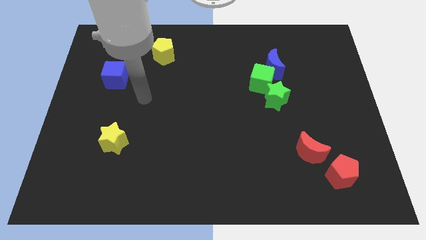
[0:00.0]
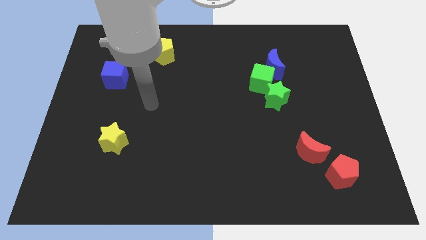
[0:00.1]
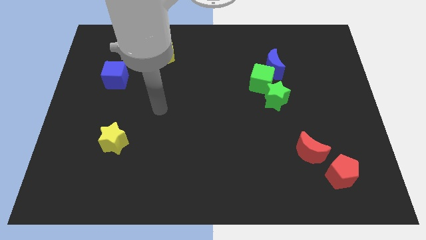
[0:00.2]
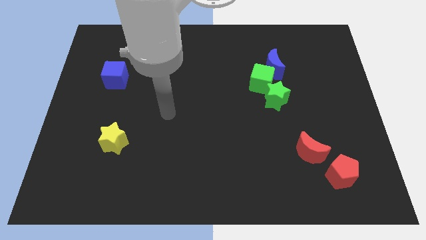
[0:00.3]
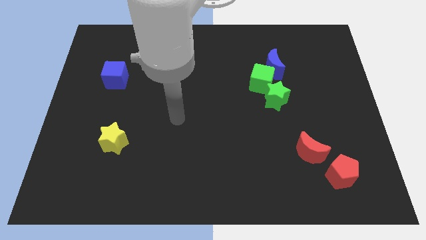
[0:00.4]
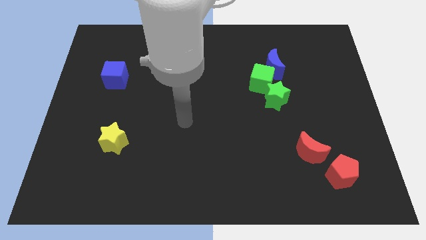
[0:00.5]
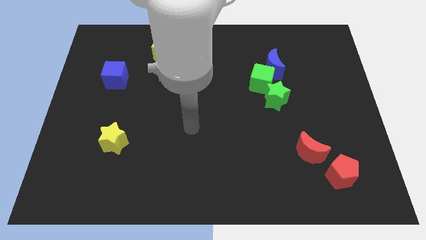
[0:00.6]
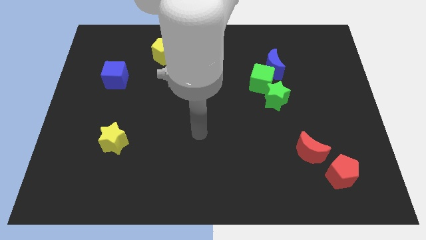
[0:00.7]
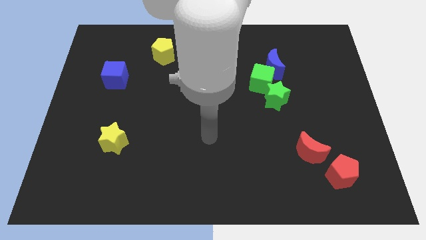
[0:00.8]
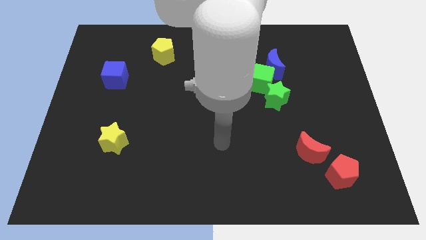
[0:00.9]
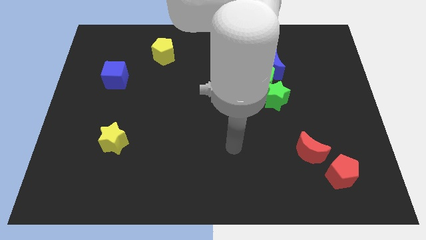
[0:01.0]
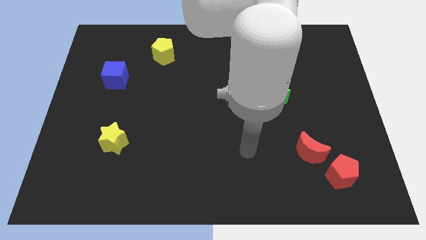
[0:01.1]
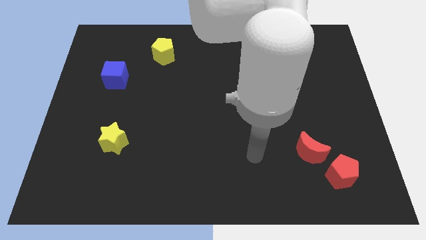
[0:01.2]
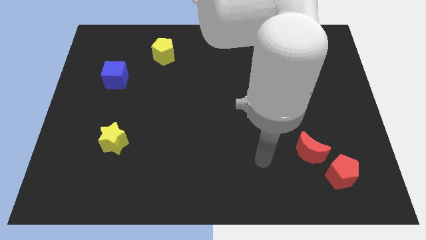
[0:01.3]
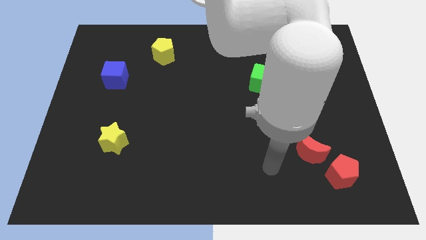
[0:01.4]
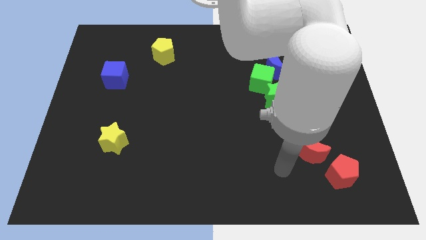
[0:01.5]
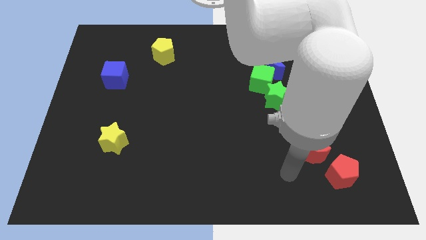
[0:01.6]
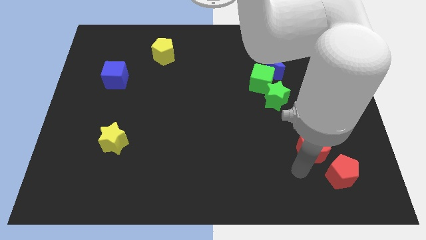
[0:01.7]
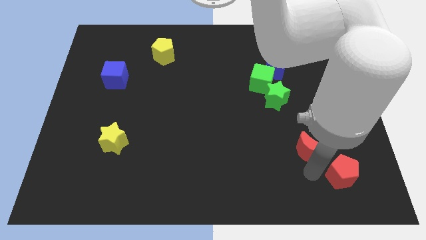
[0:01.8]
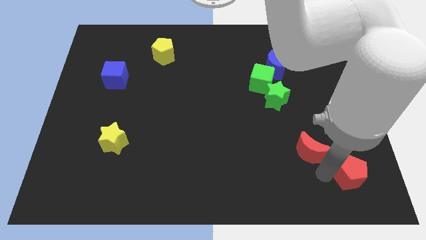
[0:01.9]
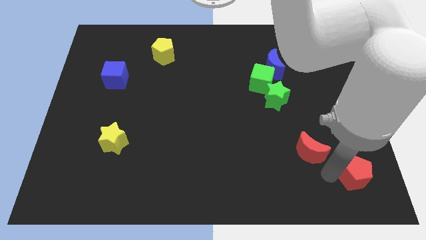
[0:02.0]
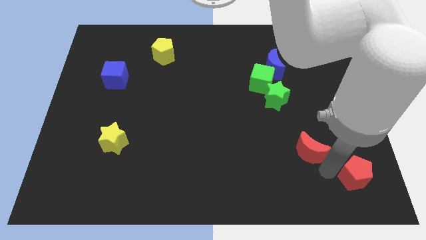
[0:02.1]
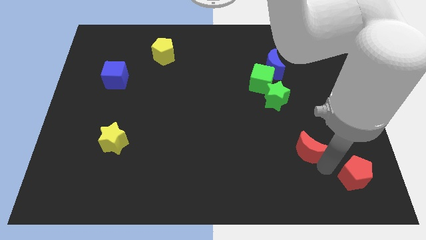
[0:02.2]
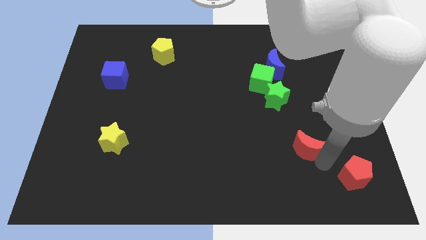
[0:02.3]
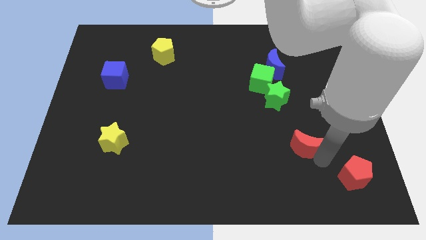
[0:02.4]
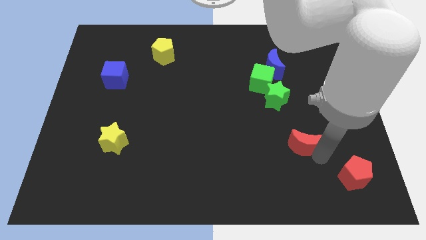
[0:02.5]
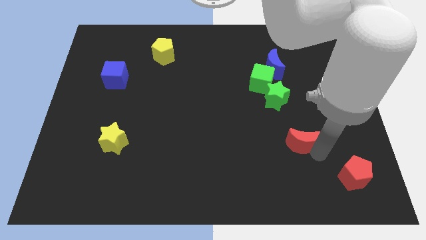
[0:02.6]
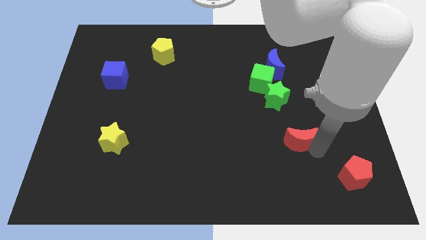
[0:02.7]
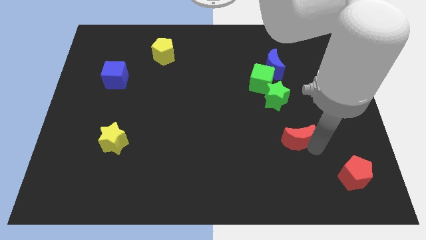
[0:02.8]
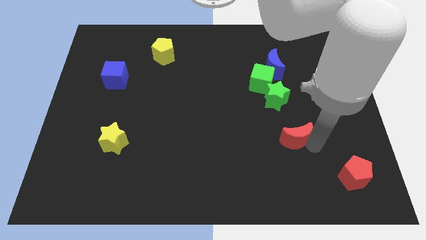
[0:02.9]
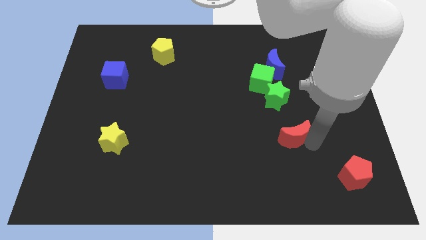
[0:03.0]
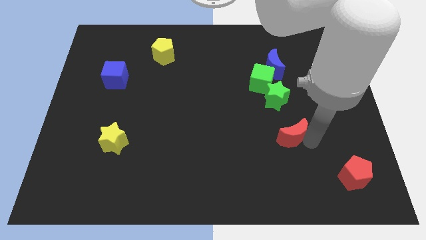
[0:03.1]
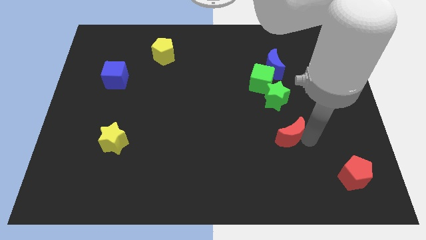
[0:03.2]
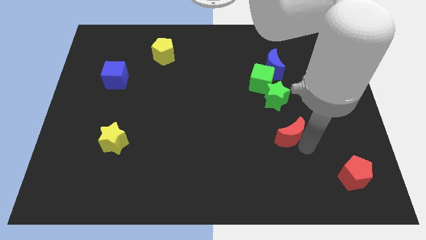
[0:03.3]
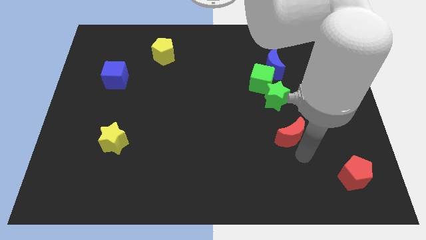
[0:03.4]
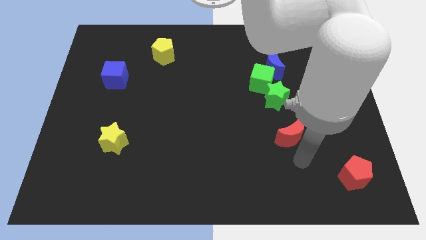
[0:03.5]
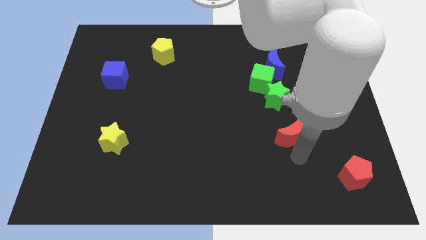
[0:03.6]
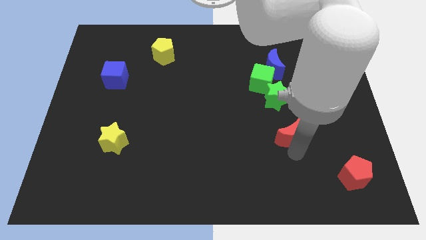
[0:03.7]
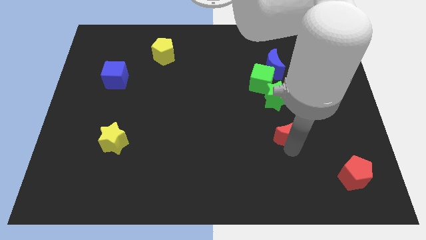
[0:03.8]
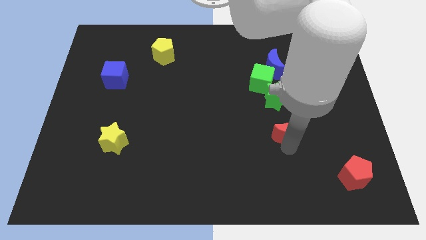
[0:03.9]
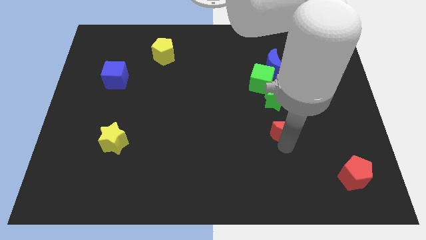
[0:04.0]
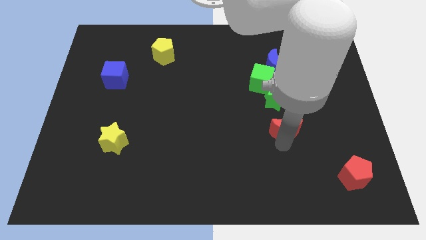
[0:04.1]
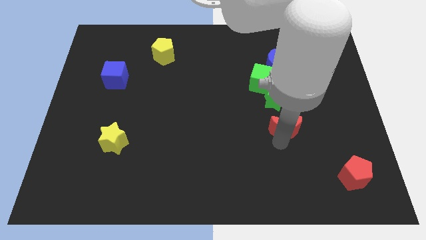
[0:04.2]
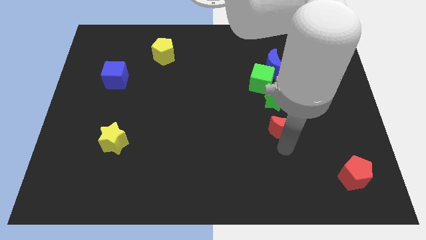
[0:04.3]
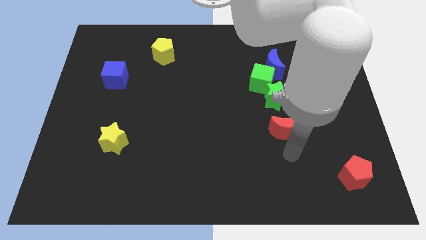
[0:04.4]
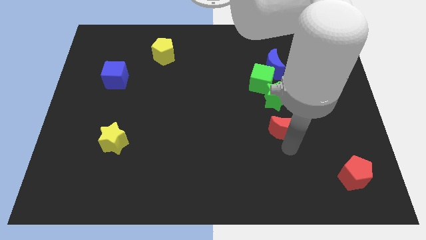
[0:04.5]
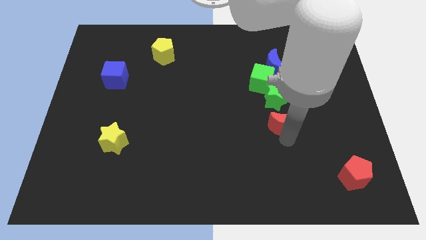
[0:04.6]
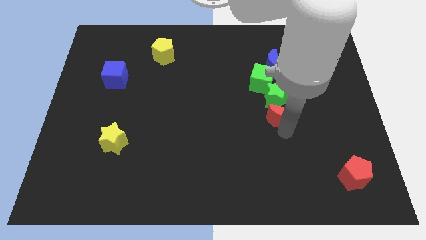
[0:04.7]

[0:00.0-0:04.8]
put the red moon towards the green star

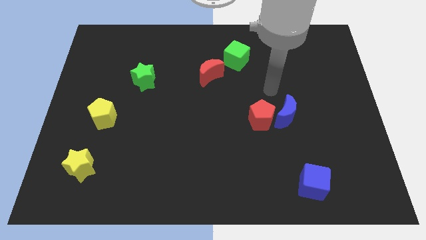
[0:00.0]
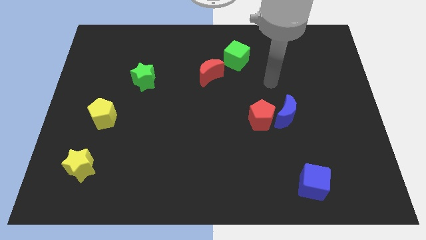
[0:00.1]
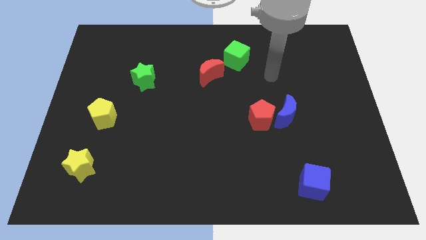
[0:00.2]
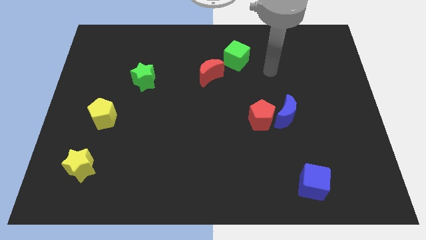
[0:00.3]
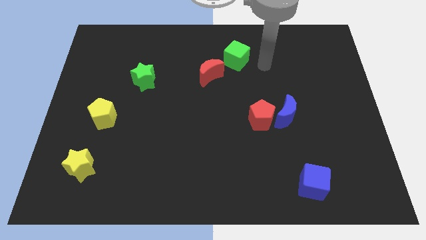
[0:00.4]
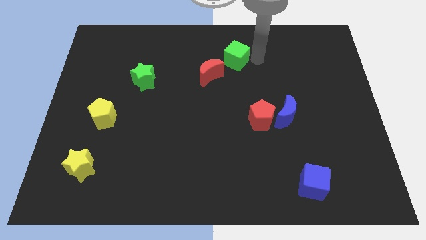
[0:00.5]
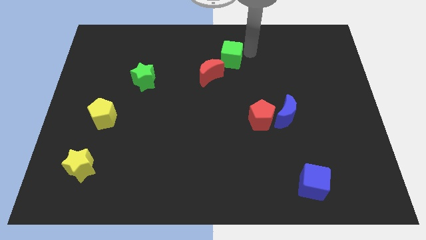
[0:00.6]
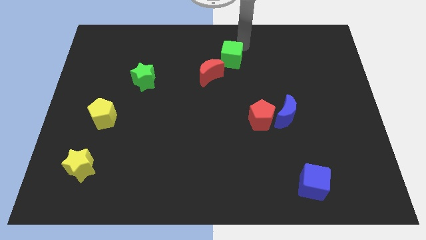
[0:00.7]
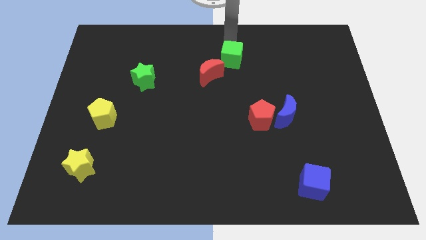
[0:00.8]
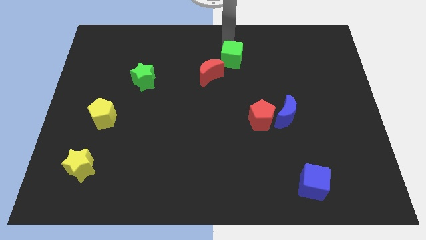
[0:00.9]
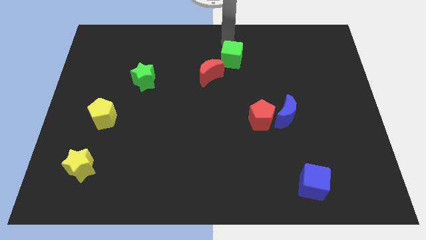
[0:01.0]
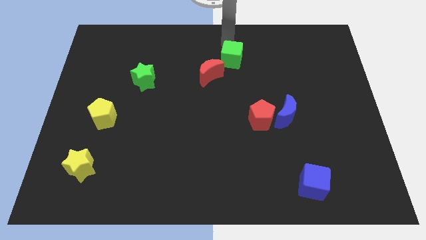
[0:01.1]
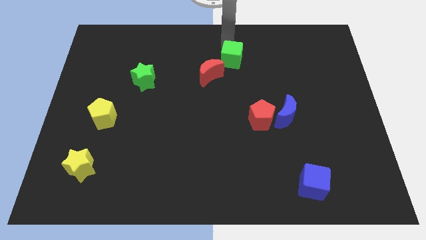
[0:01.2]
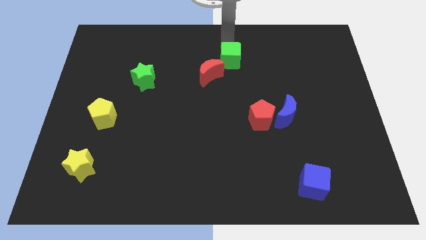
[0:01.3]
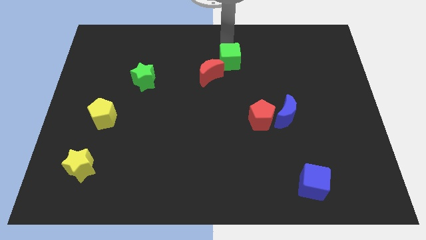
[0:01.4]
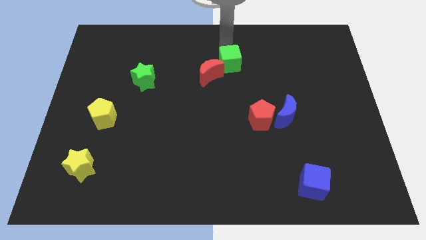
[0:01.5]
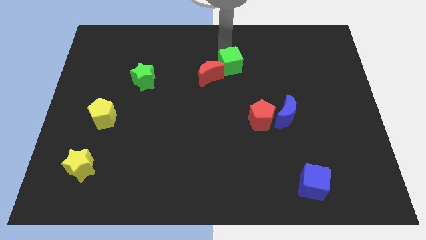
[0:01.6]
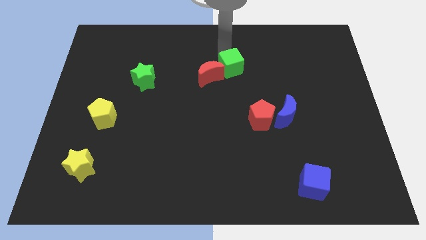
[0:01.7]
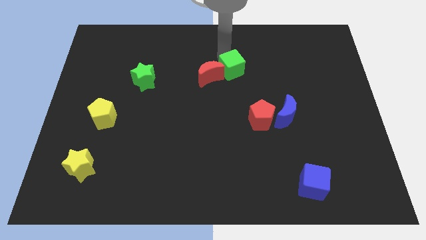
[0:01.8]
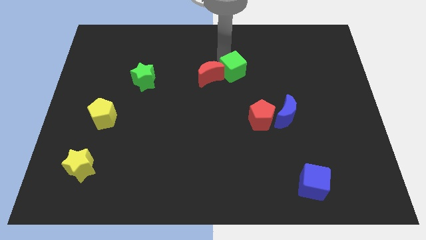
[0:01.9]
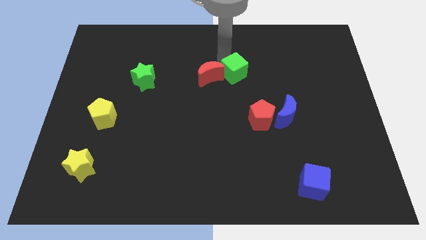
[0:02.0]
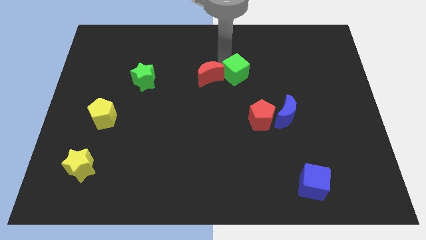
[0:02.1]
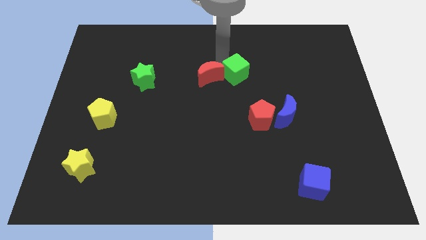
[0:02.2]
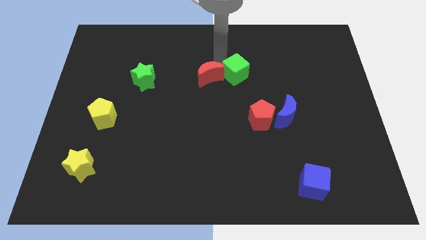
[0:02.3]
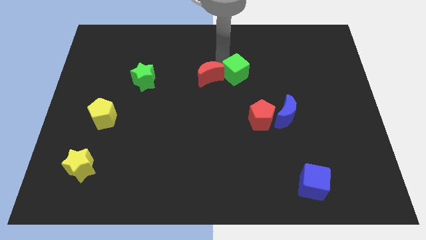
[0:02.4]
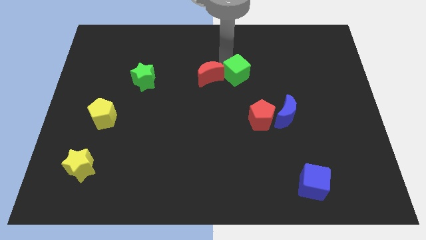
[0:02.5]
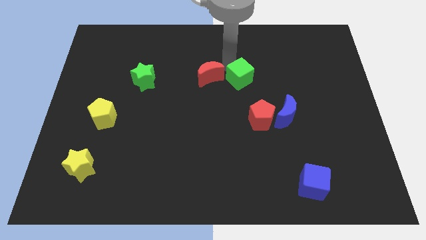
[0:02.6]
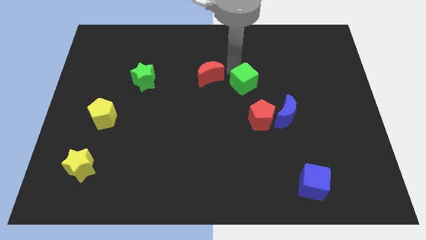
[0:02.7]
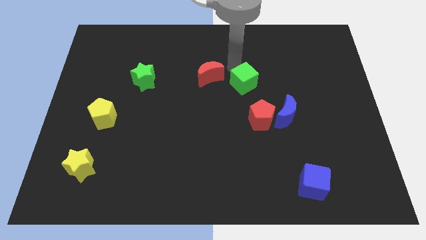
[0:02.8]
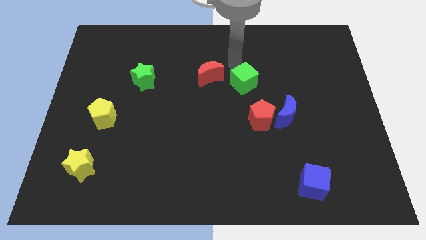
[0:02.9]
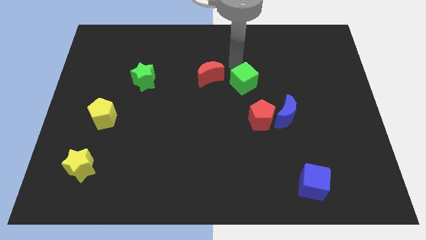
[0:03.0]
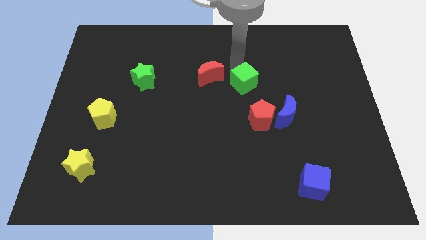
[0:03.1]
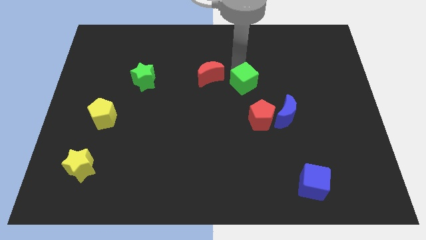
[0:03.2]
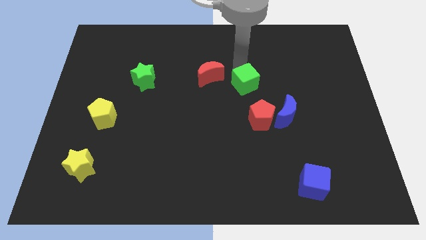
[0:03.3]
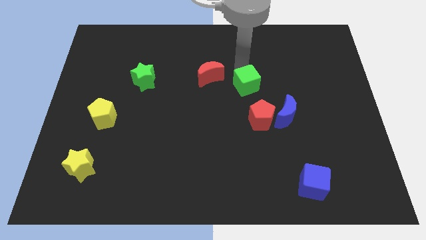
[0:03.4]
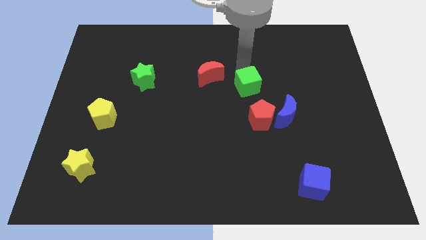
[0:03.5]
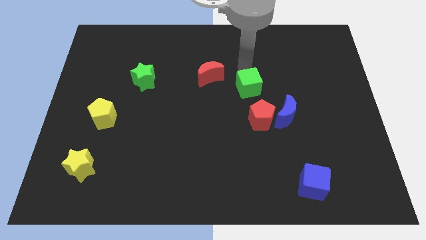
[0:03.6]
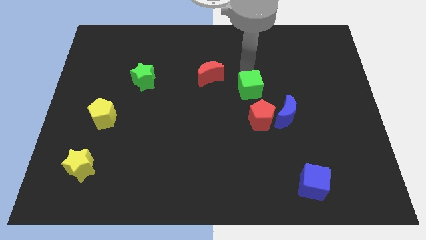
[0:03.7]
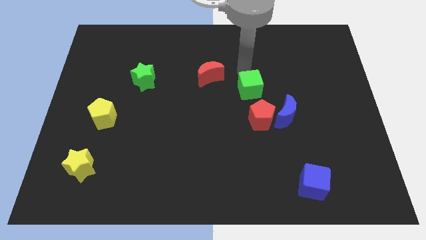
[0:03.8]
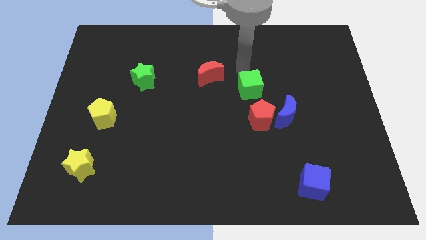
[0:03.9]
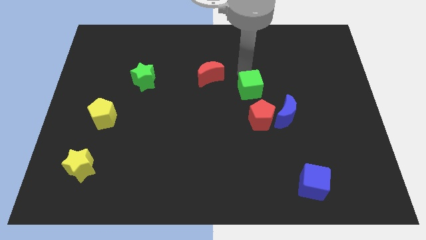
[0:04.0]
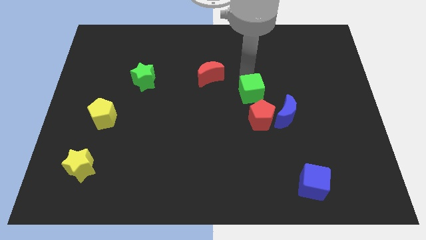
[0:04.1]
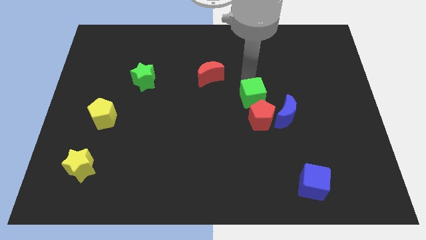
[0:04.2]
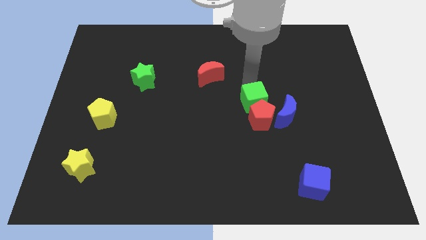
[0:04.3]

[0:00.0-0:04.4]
push the green cube close to the red pentagon
